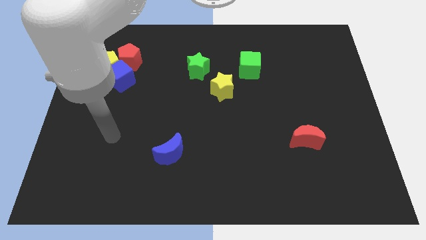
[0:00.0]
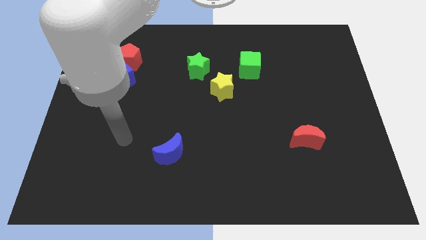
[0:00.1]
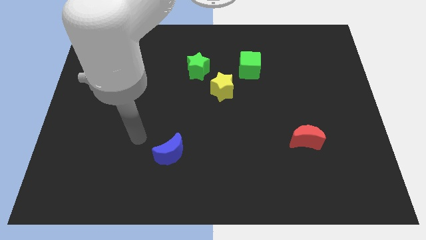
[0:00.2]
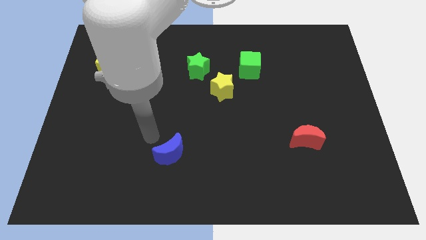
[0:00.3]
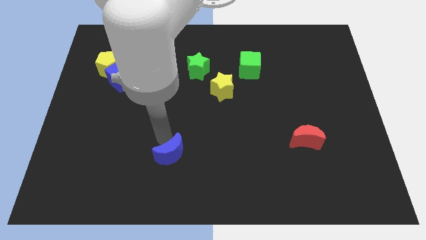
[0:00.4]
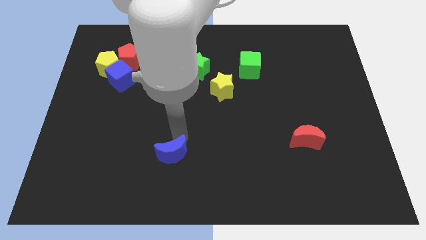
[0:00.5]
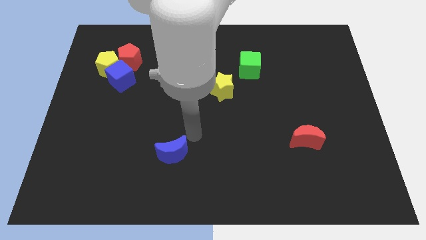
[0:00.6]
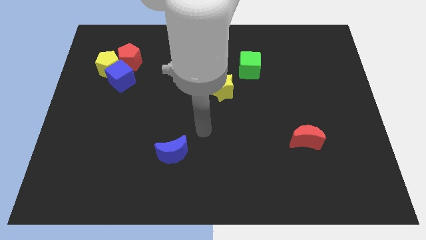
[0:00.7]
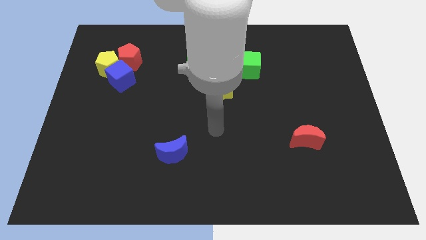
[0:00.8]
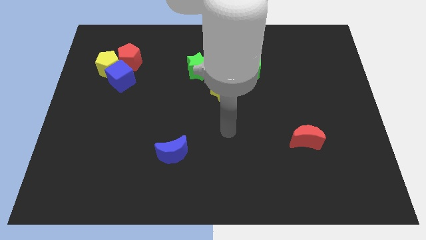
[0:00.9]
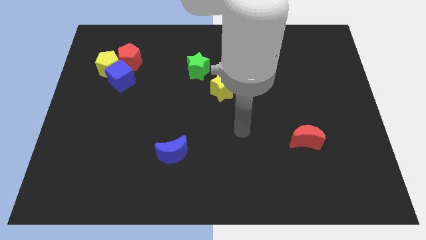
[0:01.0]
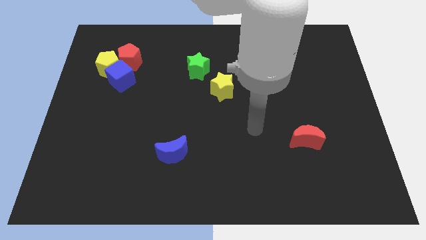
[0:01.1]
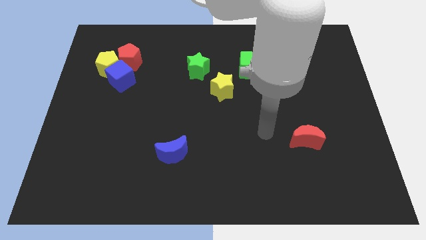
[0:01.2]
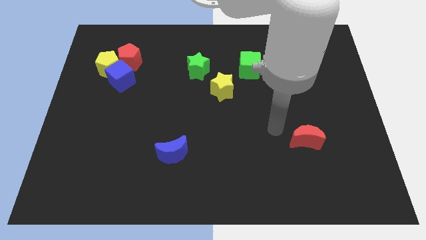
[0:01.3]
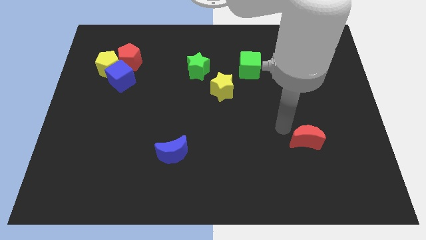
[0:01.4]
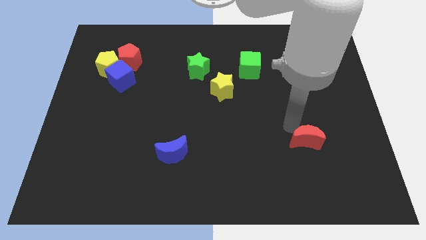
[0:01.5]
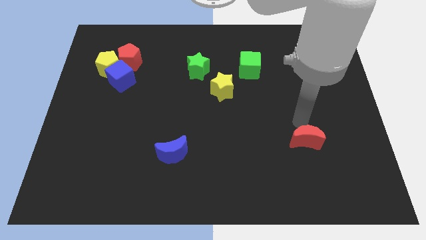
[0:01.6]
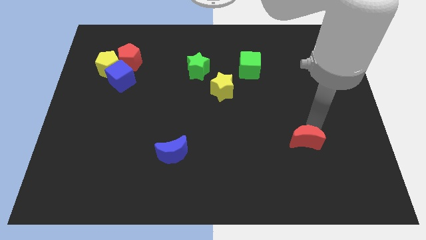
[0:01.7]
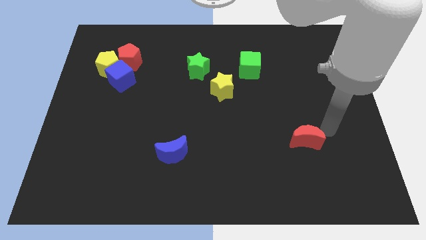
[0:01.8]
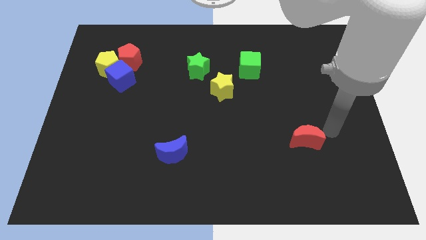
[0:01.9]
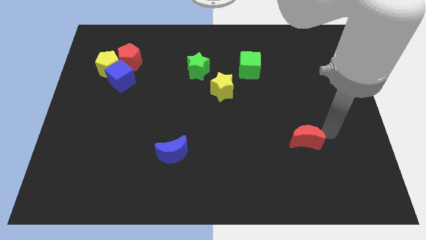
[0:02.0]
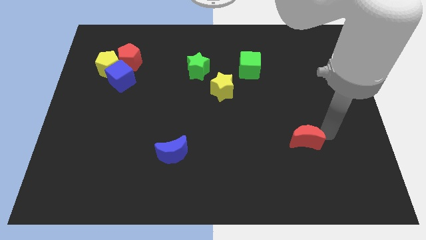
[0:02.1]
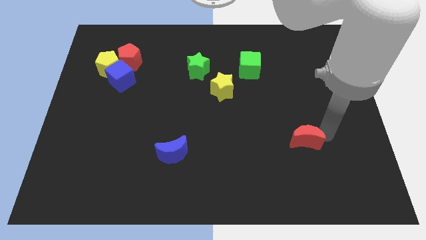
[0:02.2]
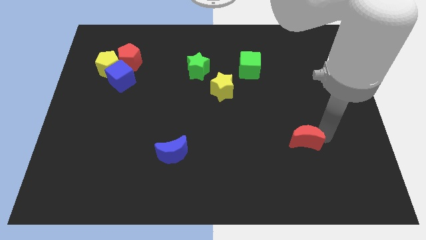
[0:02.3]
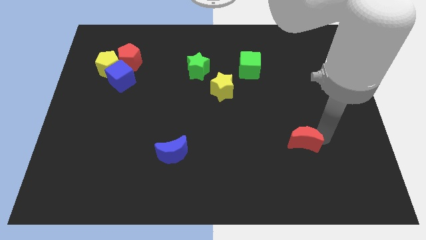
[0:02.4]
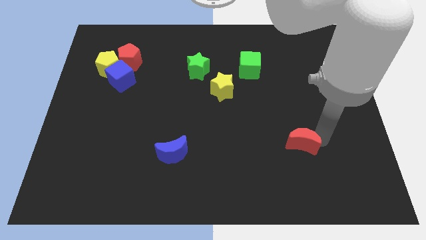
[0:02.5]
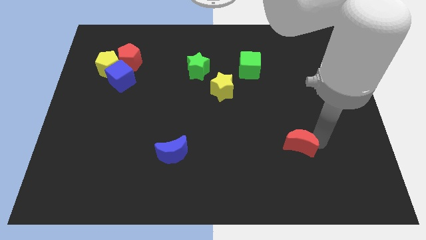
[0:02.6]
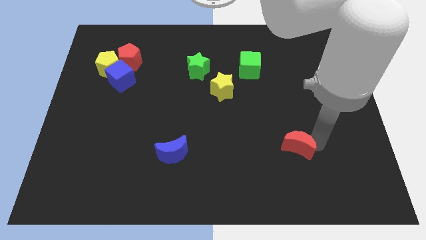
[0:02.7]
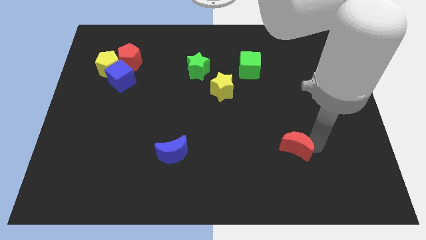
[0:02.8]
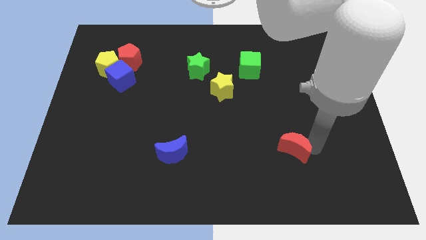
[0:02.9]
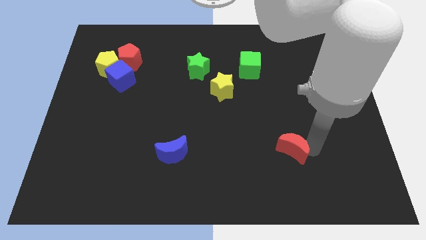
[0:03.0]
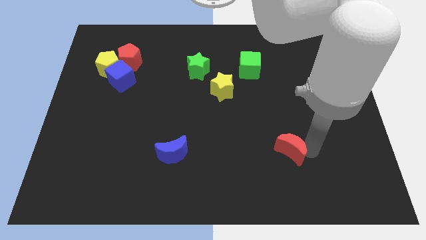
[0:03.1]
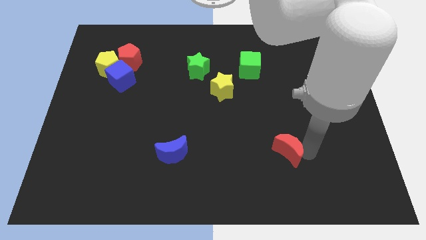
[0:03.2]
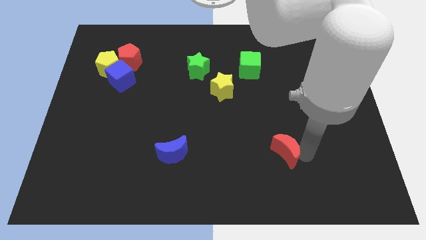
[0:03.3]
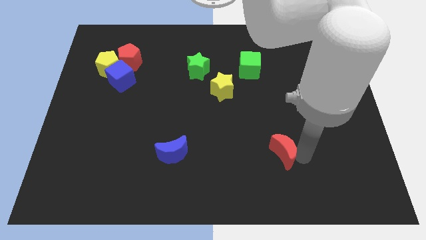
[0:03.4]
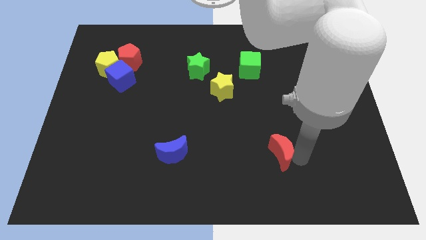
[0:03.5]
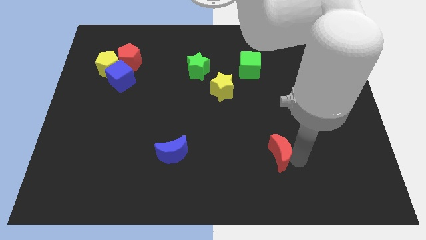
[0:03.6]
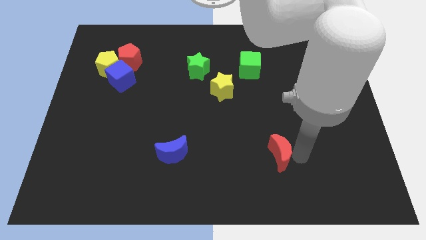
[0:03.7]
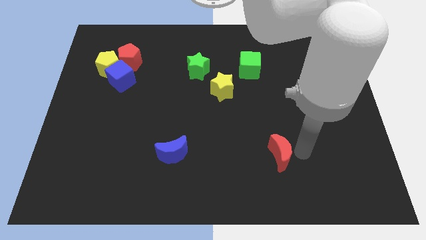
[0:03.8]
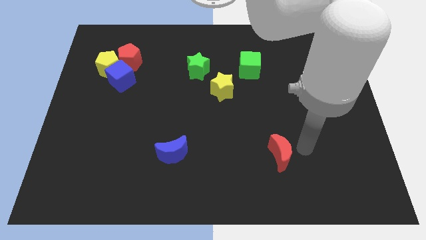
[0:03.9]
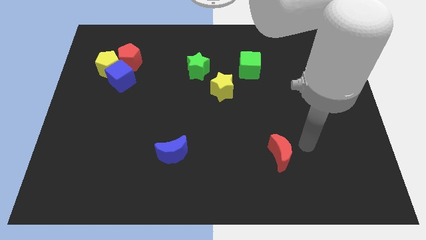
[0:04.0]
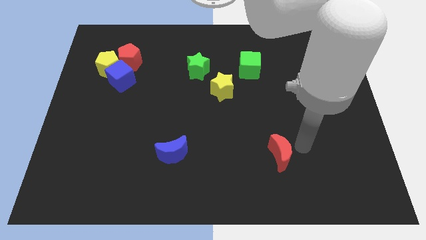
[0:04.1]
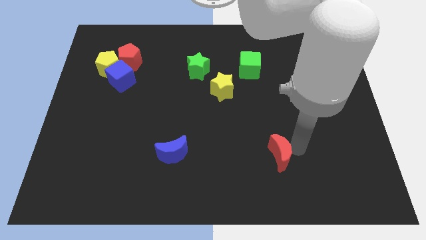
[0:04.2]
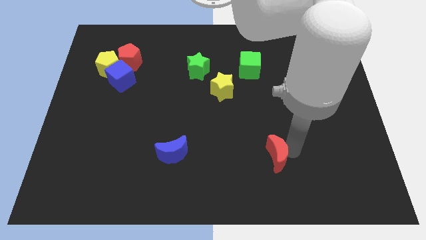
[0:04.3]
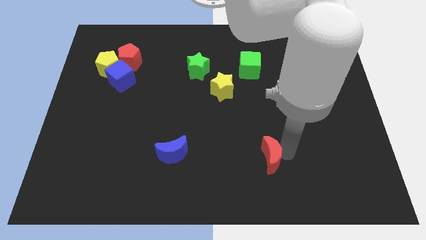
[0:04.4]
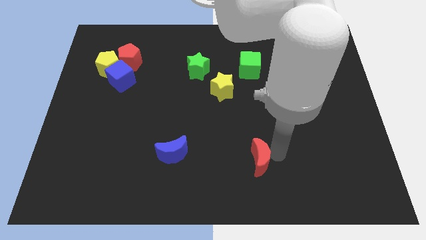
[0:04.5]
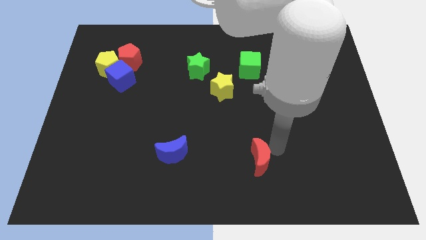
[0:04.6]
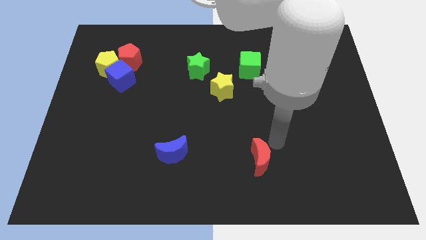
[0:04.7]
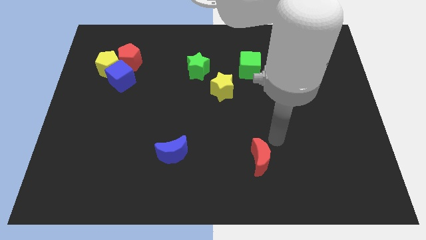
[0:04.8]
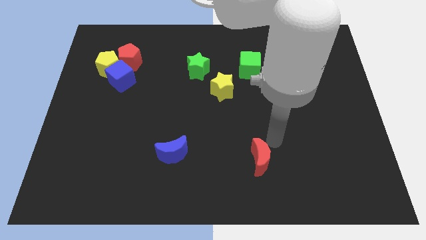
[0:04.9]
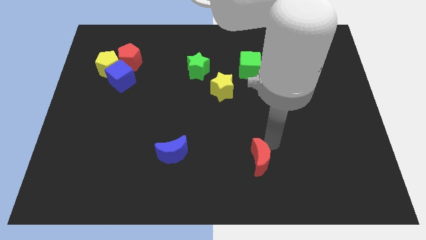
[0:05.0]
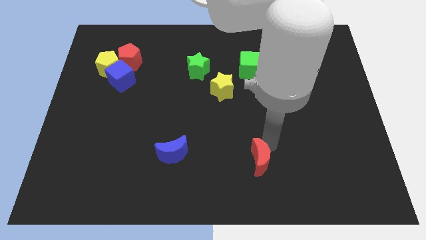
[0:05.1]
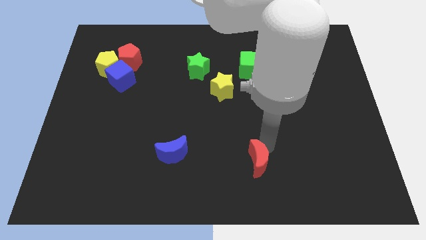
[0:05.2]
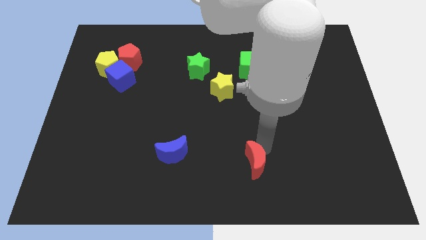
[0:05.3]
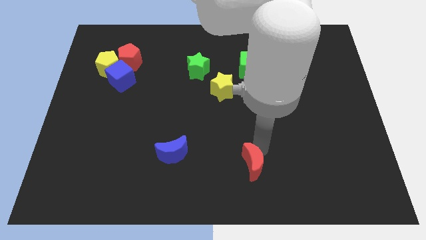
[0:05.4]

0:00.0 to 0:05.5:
move the red moon to the bottom side

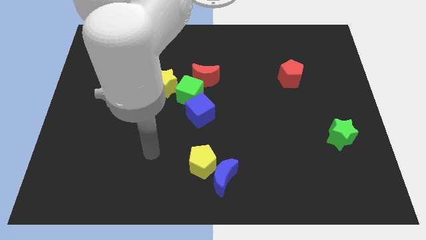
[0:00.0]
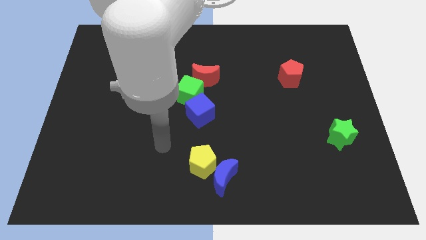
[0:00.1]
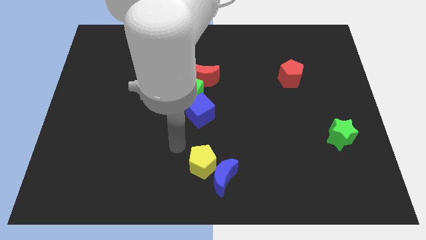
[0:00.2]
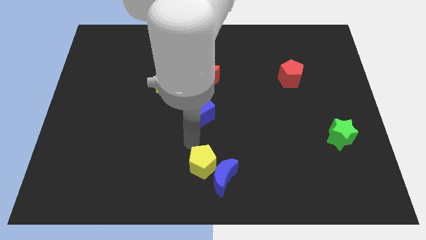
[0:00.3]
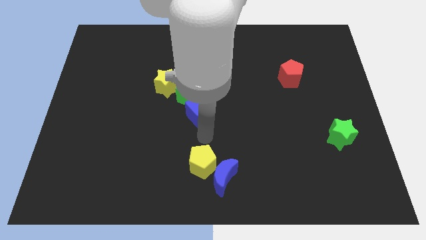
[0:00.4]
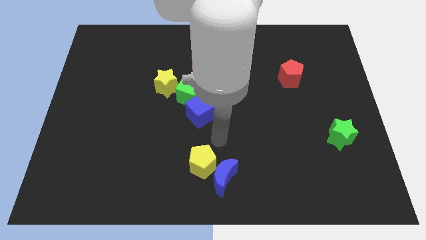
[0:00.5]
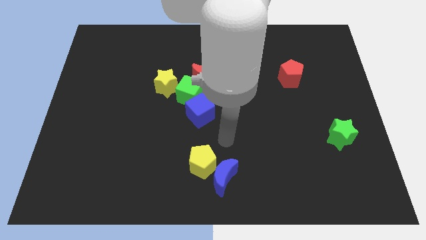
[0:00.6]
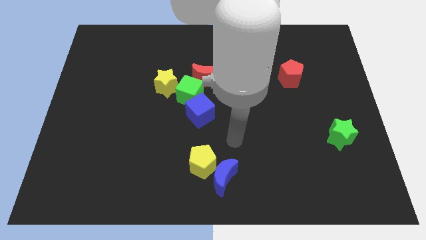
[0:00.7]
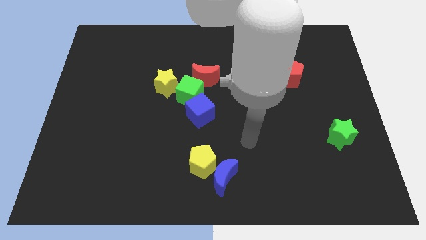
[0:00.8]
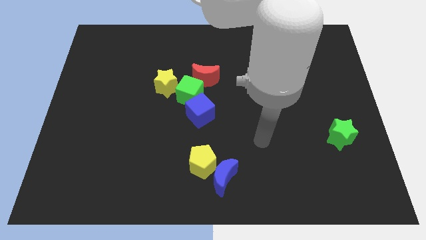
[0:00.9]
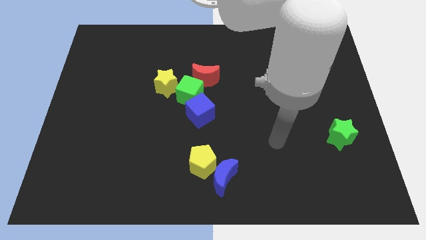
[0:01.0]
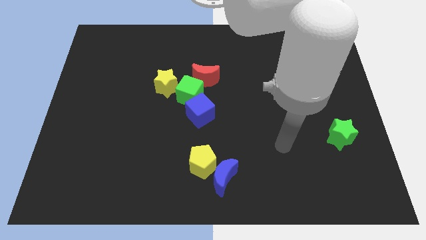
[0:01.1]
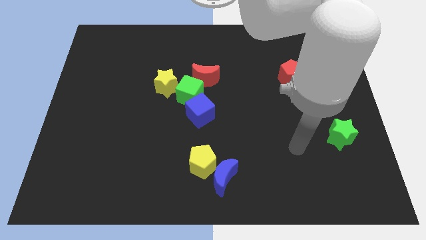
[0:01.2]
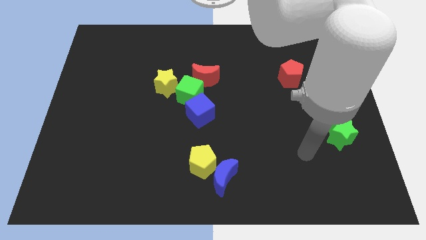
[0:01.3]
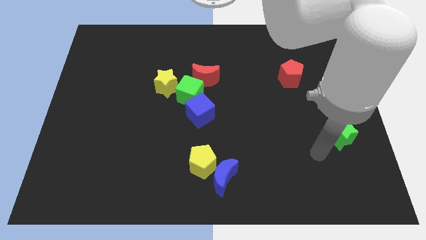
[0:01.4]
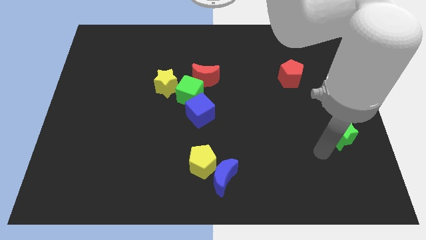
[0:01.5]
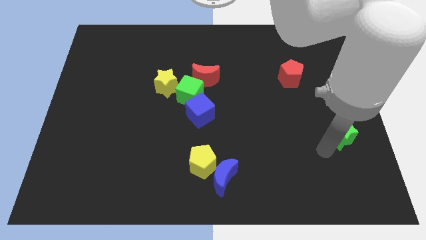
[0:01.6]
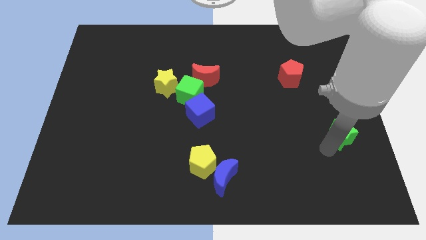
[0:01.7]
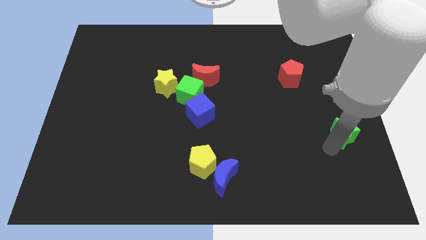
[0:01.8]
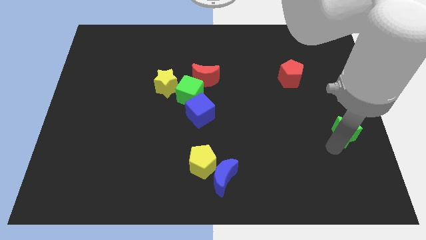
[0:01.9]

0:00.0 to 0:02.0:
slide the green star to the center right
